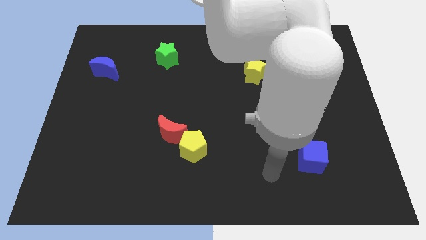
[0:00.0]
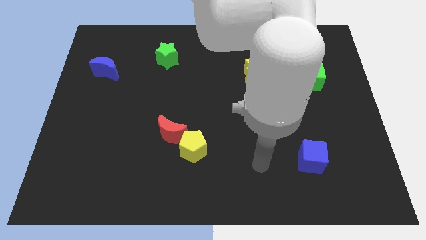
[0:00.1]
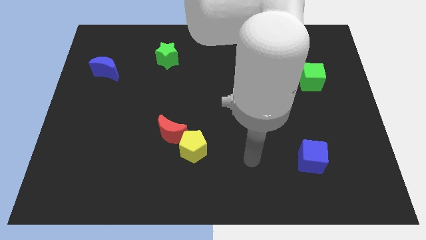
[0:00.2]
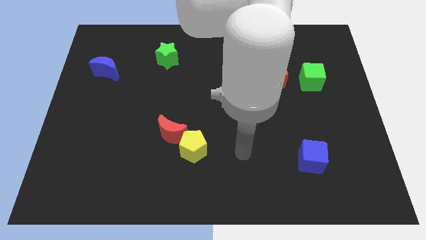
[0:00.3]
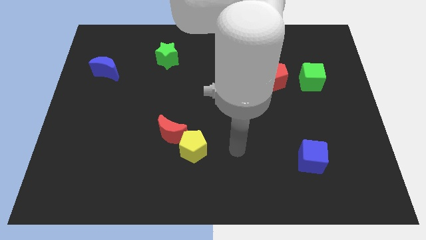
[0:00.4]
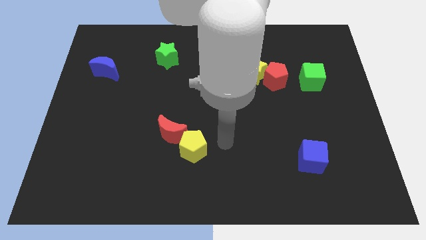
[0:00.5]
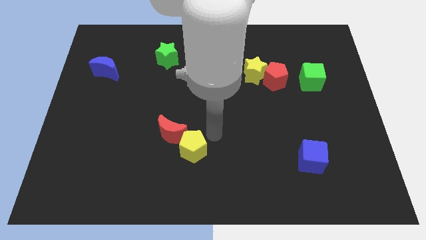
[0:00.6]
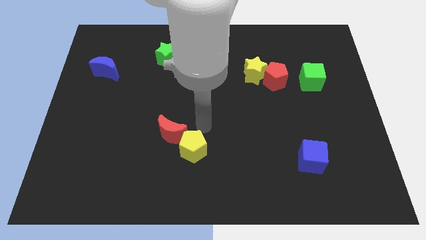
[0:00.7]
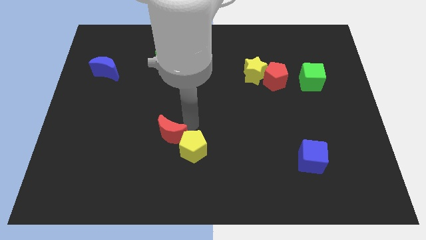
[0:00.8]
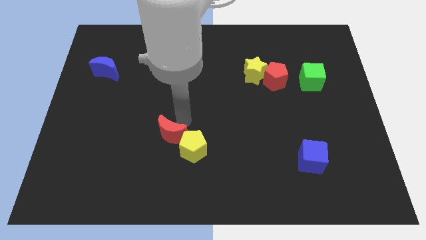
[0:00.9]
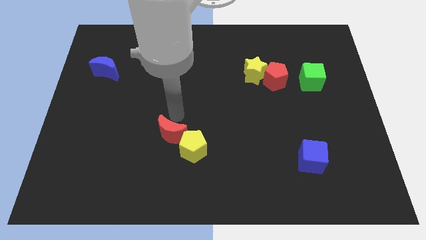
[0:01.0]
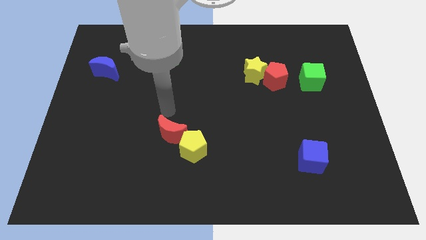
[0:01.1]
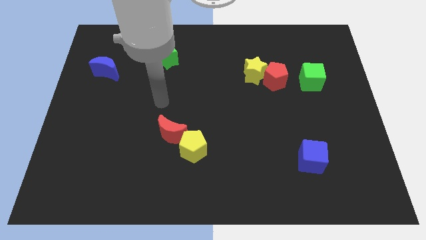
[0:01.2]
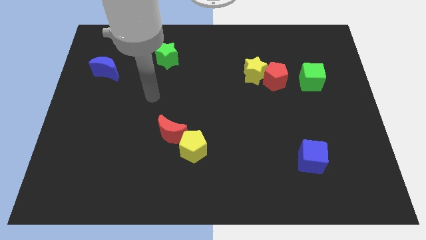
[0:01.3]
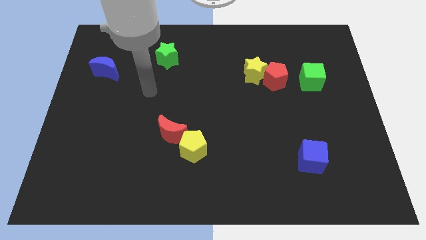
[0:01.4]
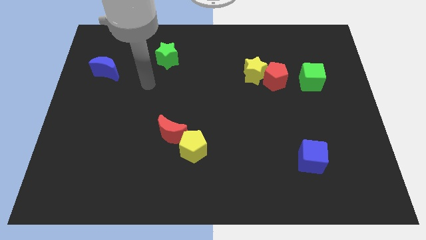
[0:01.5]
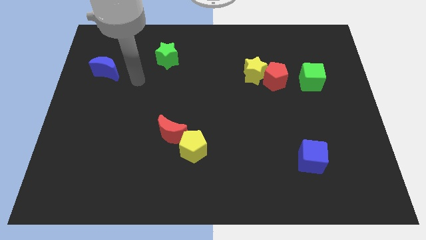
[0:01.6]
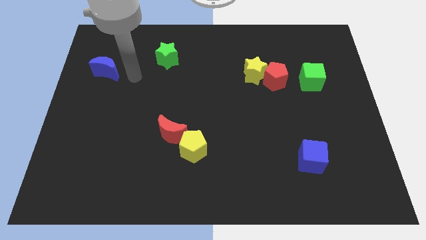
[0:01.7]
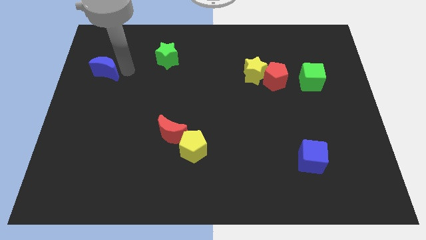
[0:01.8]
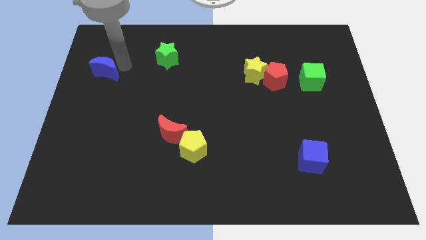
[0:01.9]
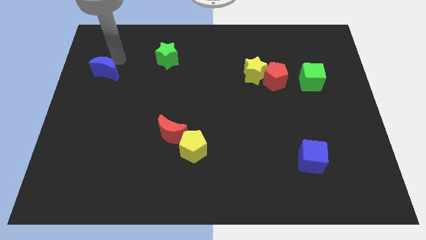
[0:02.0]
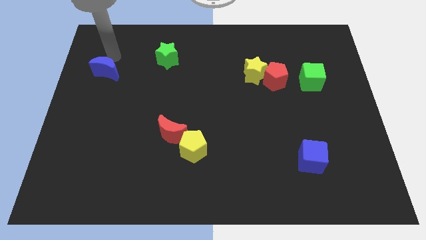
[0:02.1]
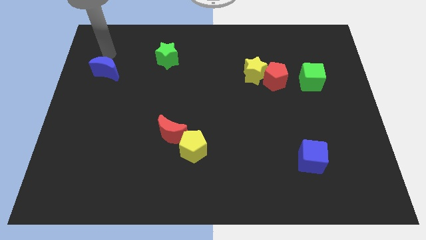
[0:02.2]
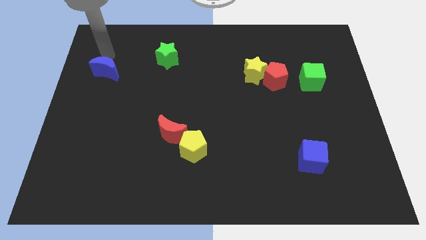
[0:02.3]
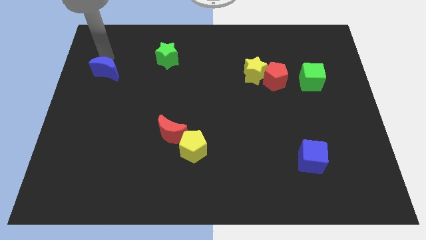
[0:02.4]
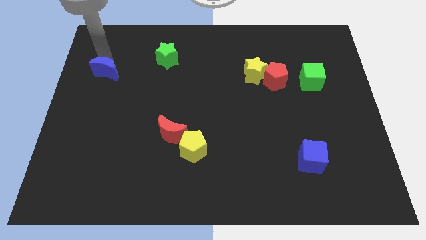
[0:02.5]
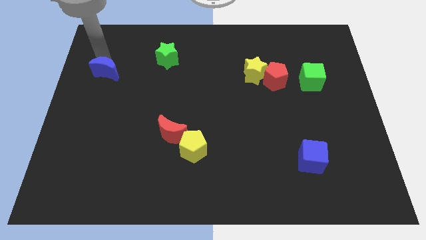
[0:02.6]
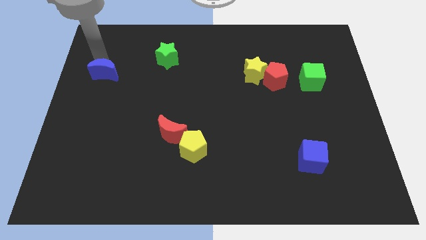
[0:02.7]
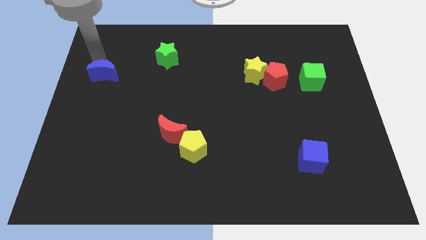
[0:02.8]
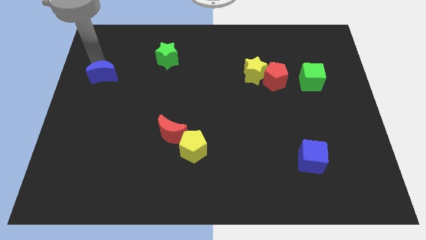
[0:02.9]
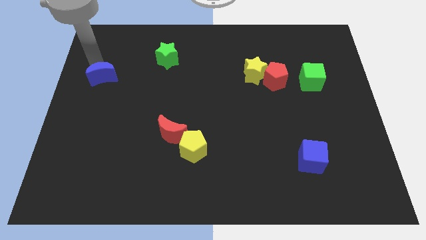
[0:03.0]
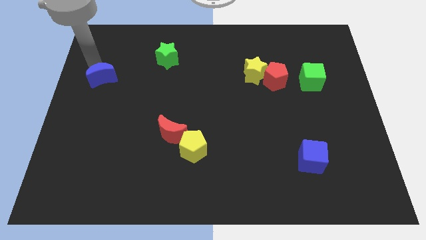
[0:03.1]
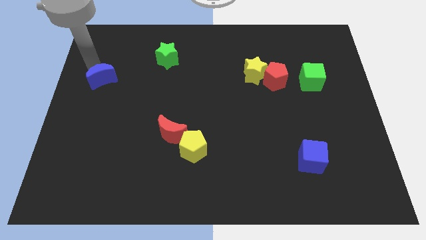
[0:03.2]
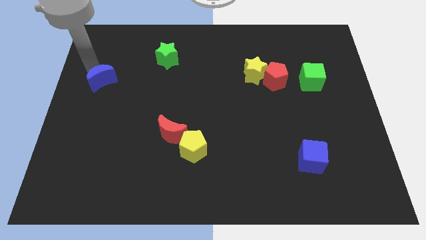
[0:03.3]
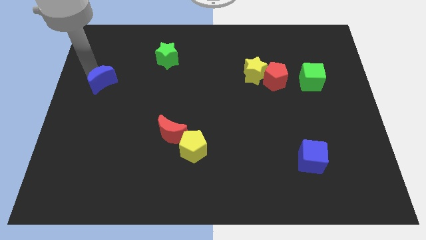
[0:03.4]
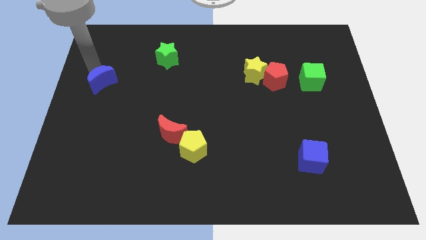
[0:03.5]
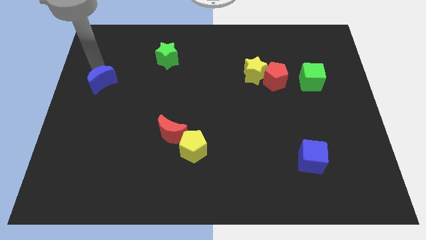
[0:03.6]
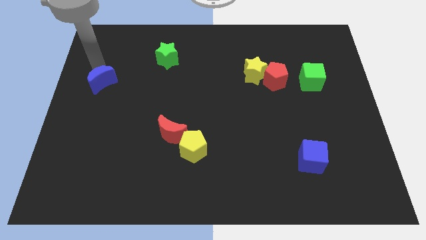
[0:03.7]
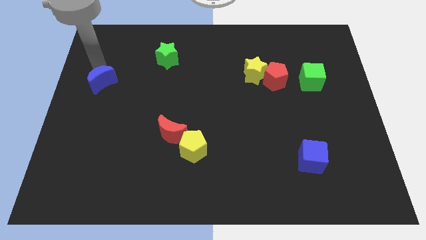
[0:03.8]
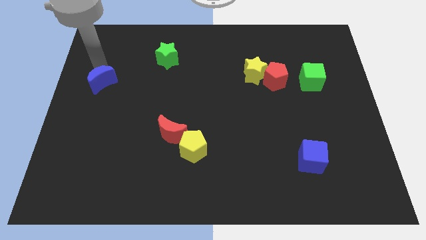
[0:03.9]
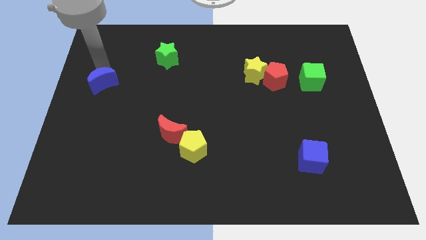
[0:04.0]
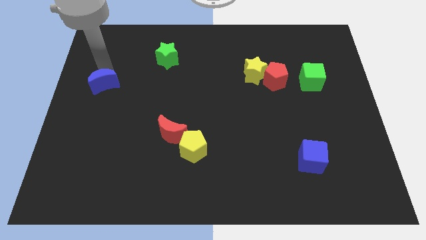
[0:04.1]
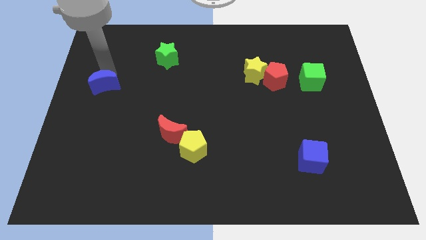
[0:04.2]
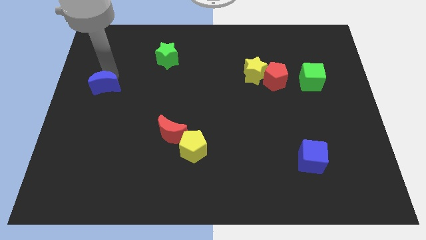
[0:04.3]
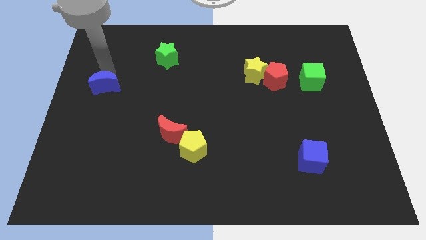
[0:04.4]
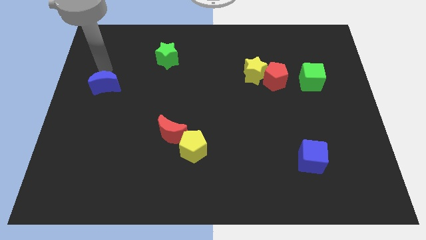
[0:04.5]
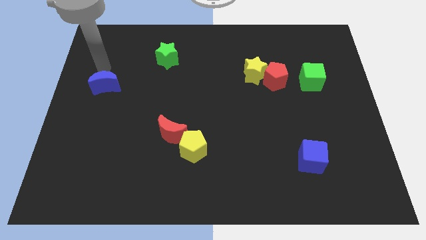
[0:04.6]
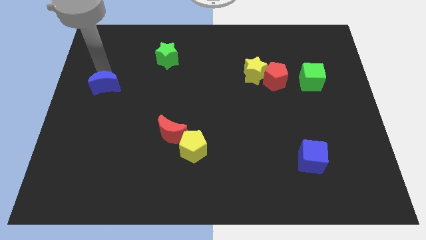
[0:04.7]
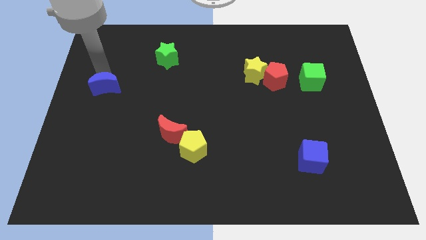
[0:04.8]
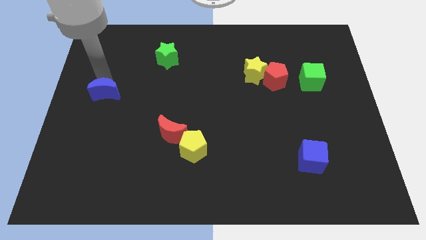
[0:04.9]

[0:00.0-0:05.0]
slightly push the blue moon downwards

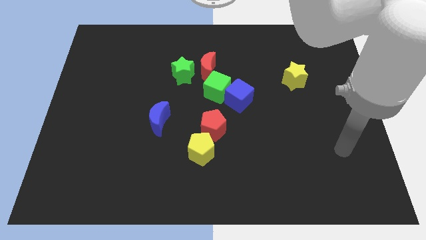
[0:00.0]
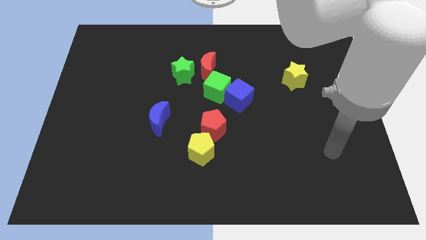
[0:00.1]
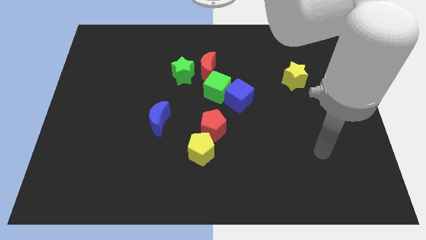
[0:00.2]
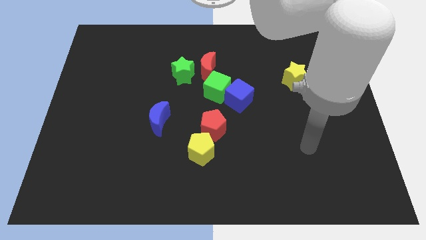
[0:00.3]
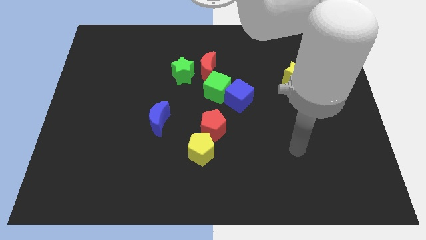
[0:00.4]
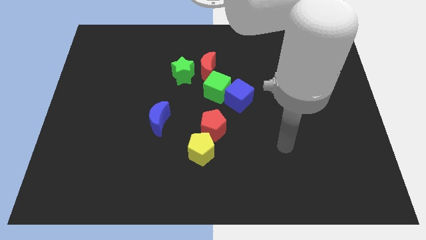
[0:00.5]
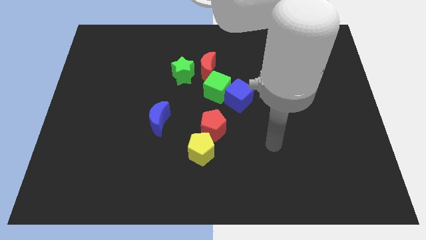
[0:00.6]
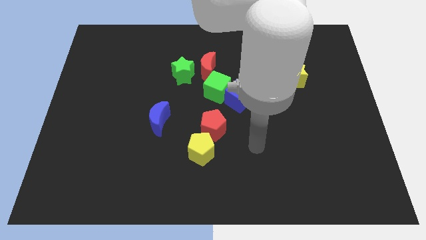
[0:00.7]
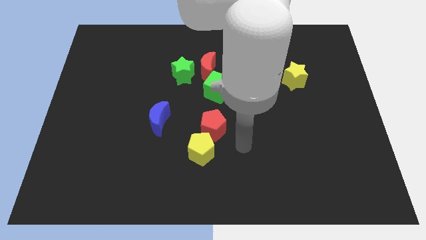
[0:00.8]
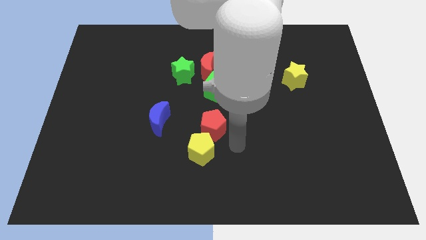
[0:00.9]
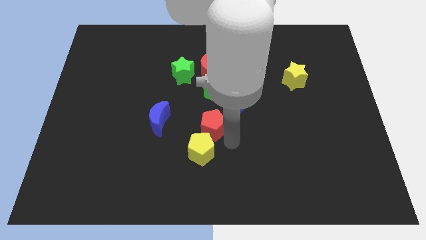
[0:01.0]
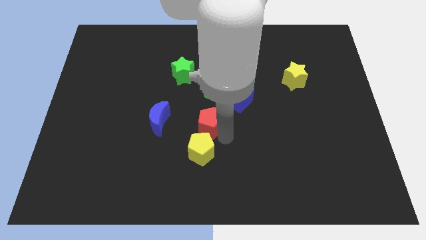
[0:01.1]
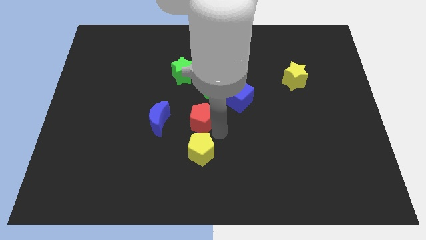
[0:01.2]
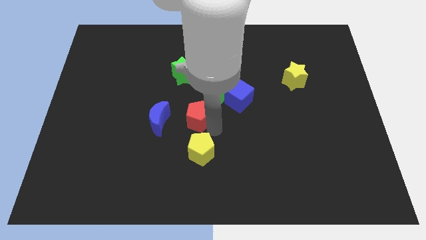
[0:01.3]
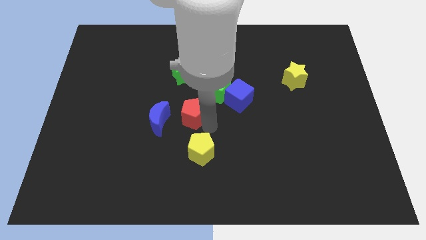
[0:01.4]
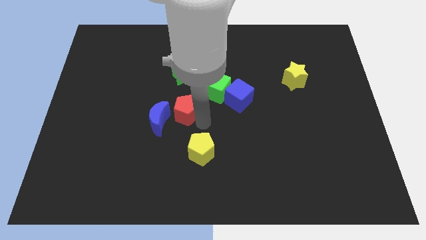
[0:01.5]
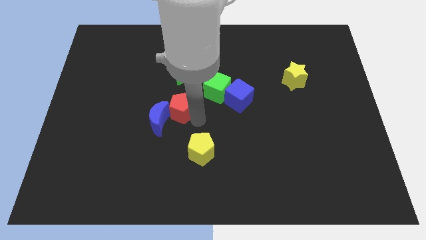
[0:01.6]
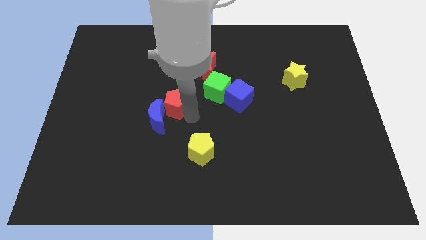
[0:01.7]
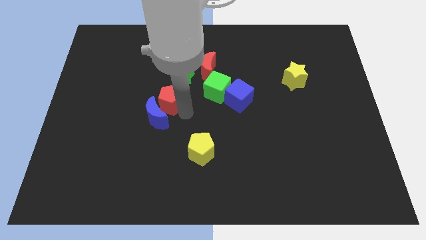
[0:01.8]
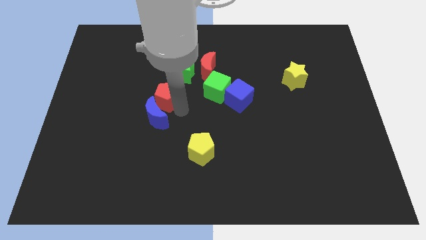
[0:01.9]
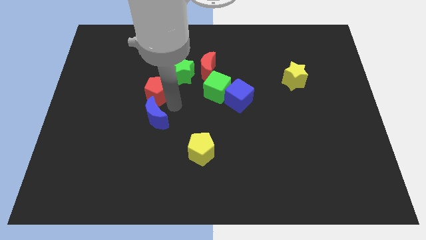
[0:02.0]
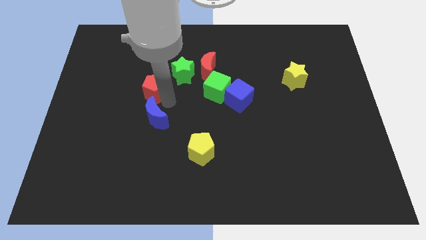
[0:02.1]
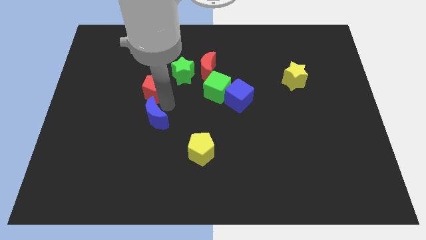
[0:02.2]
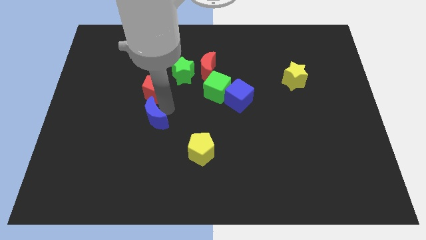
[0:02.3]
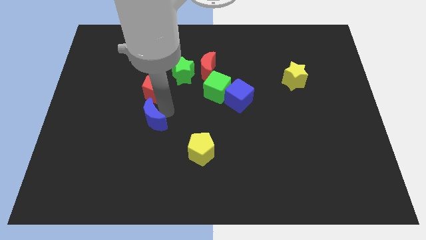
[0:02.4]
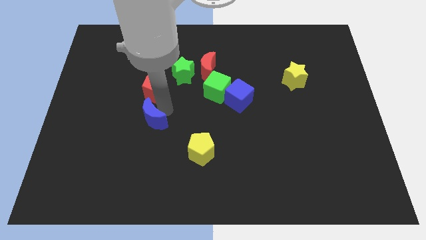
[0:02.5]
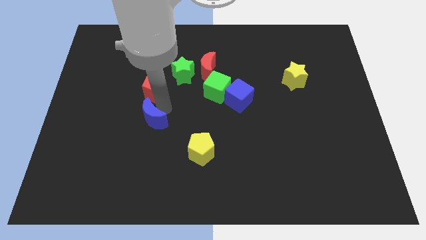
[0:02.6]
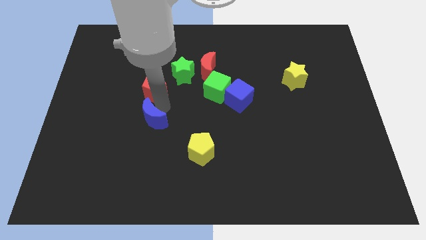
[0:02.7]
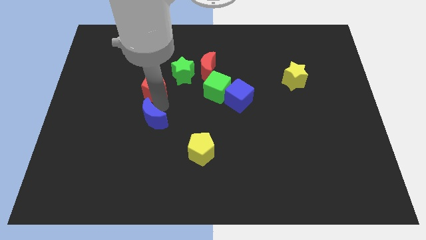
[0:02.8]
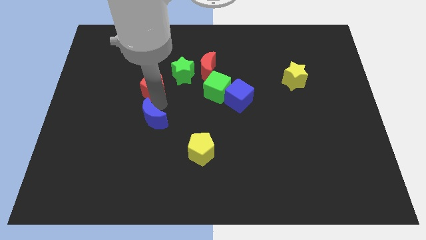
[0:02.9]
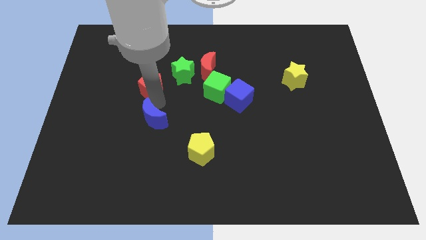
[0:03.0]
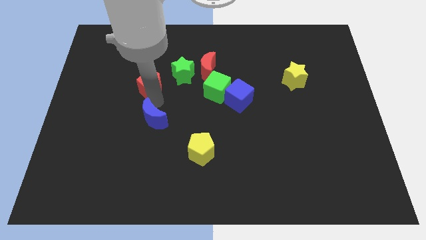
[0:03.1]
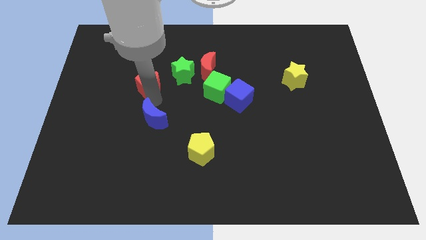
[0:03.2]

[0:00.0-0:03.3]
push the red pentagon upwards and then left
